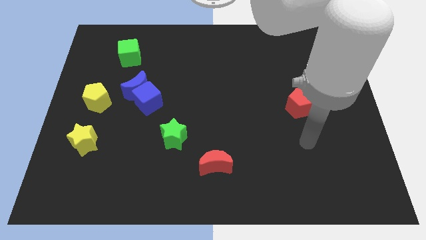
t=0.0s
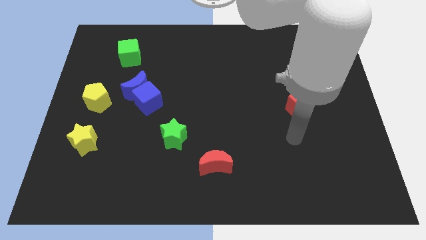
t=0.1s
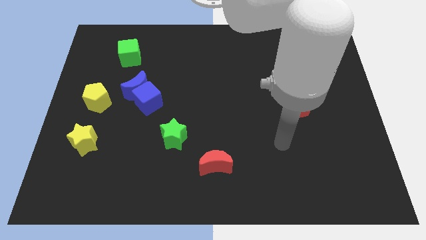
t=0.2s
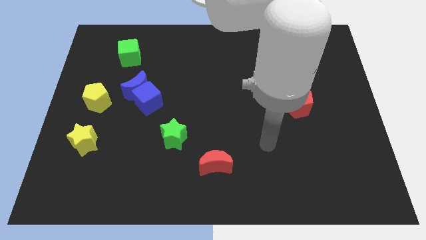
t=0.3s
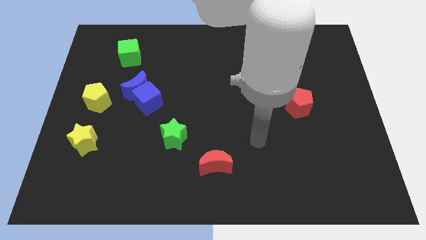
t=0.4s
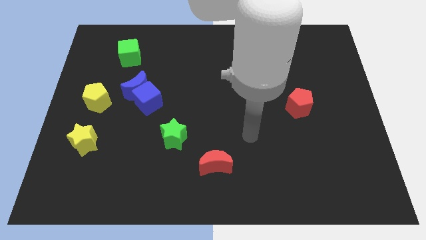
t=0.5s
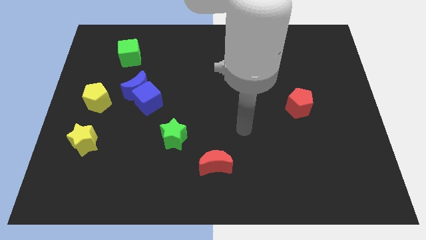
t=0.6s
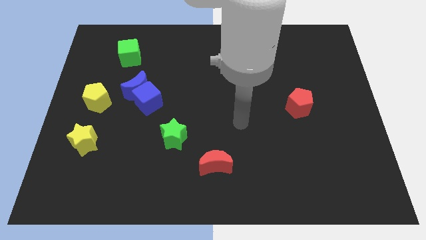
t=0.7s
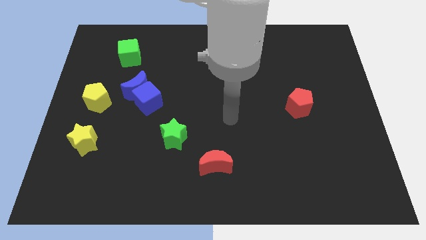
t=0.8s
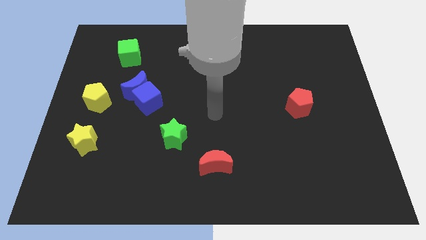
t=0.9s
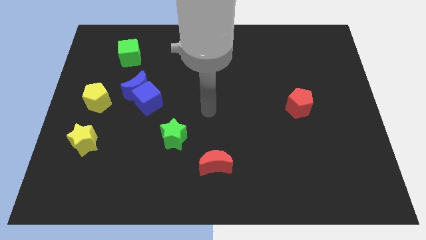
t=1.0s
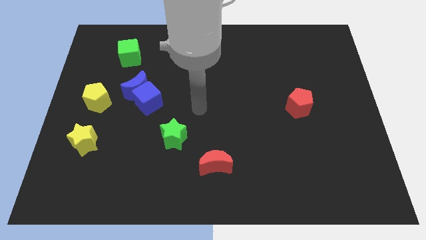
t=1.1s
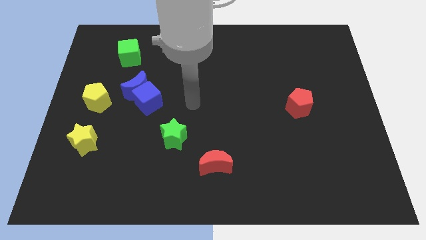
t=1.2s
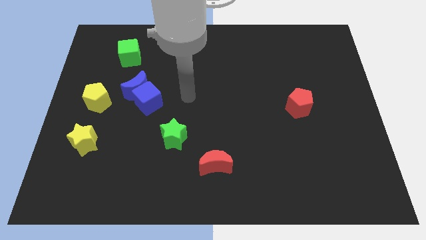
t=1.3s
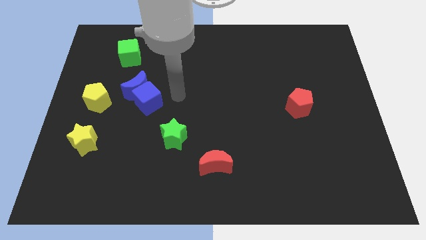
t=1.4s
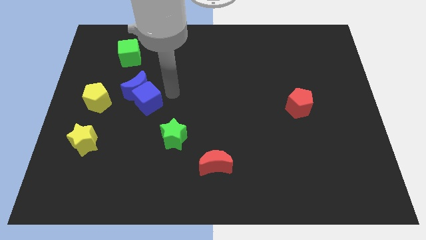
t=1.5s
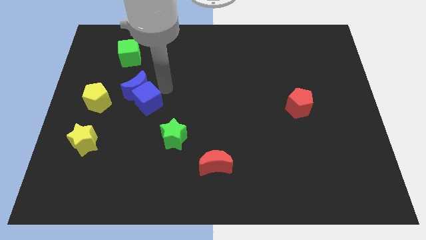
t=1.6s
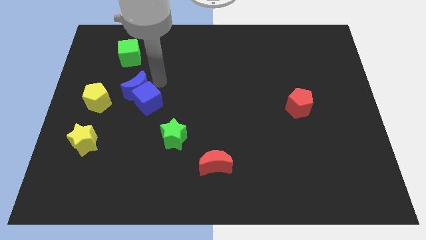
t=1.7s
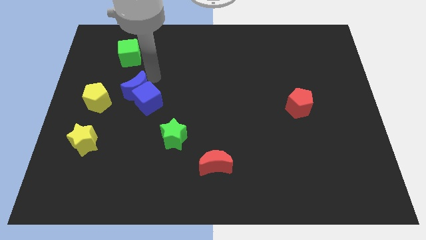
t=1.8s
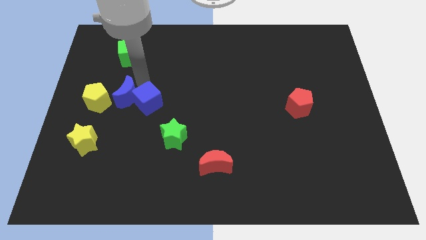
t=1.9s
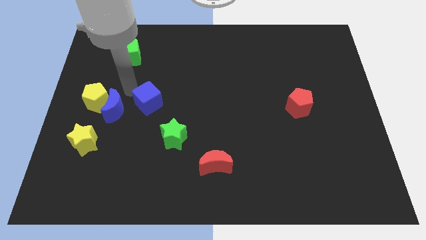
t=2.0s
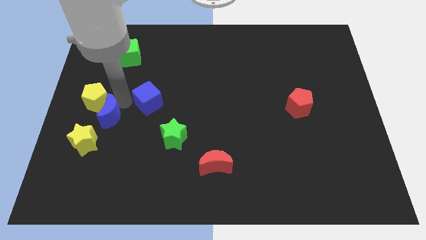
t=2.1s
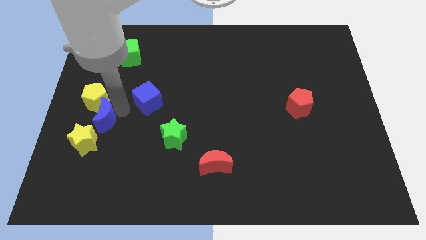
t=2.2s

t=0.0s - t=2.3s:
separate the blue cube from the blue moon

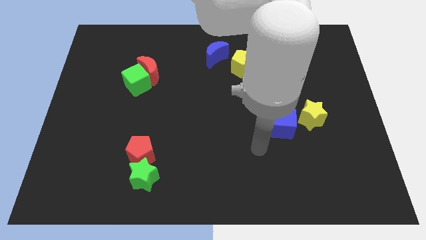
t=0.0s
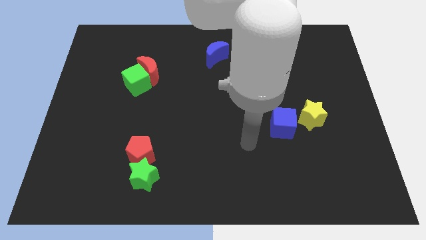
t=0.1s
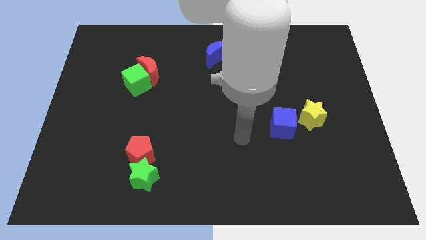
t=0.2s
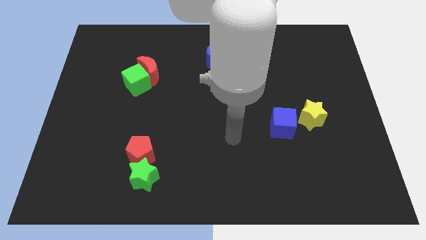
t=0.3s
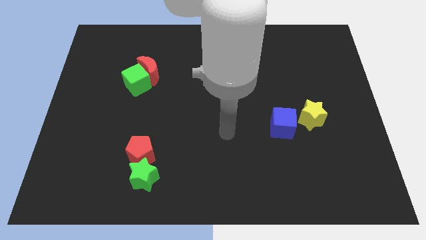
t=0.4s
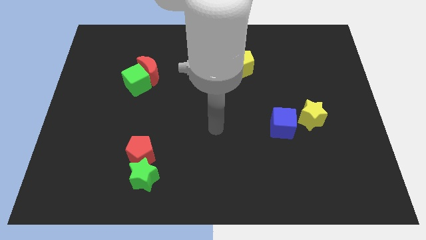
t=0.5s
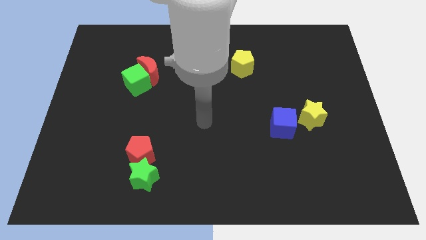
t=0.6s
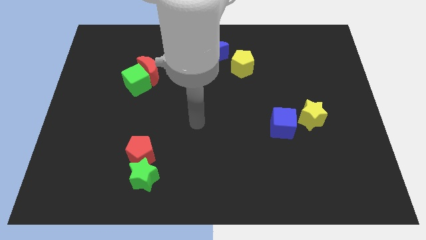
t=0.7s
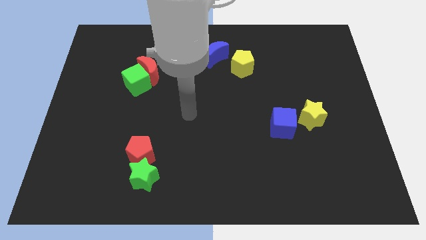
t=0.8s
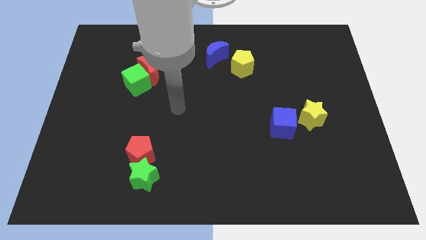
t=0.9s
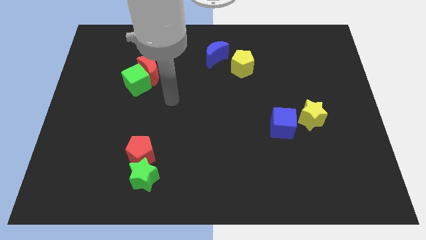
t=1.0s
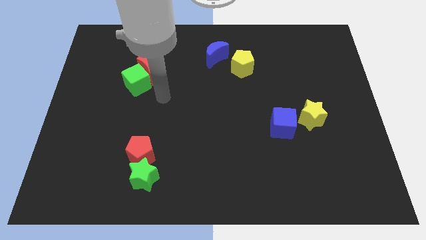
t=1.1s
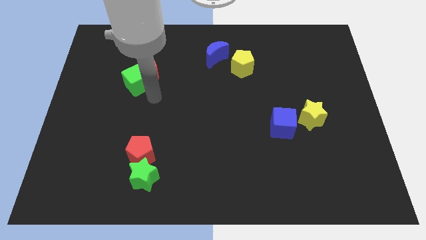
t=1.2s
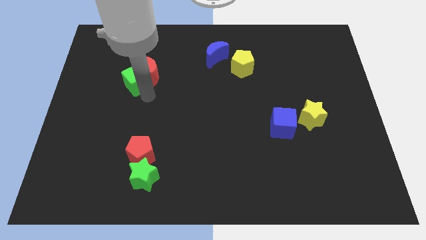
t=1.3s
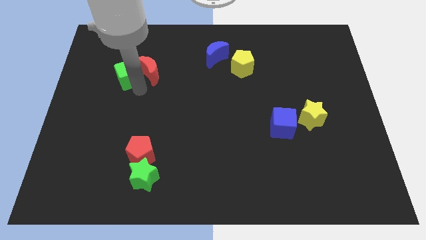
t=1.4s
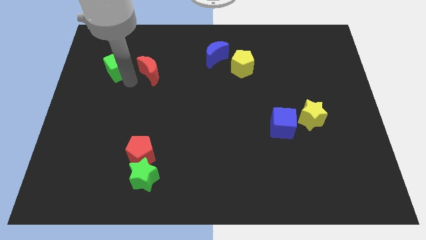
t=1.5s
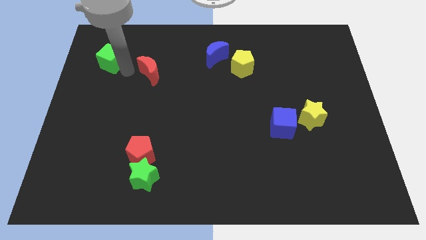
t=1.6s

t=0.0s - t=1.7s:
move the red moon away from the green cube

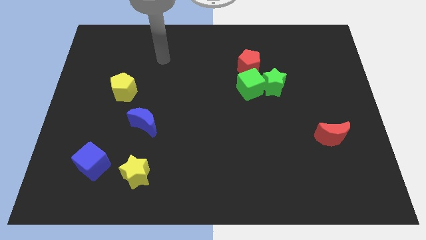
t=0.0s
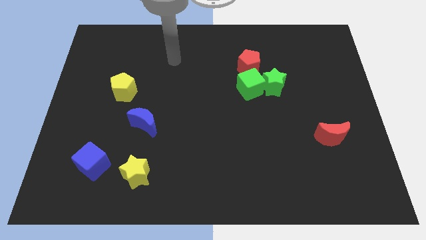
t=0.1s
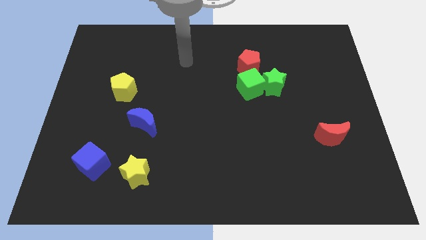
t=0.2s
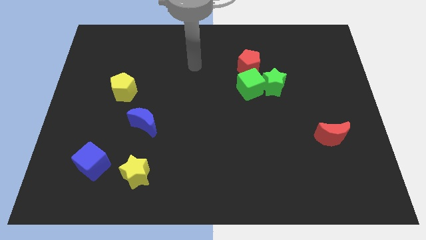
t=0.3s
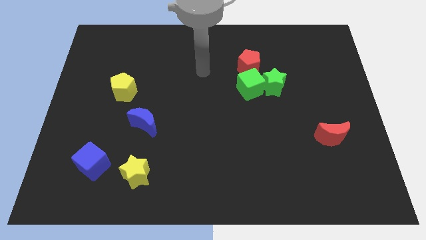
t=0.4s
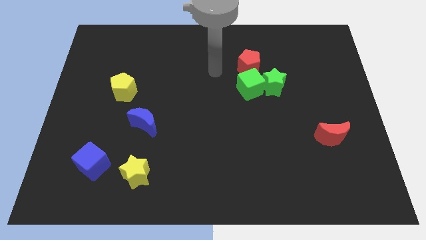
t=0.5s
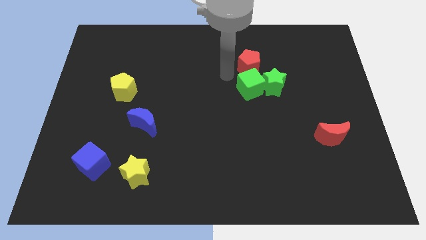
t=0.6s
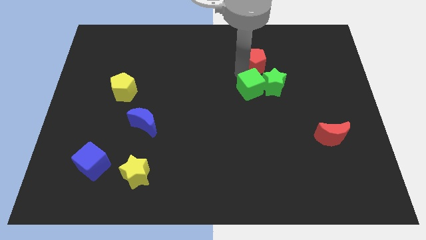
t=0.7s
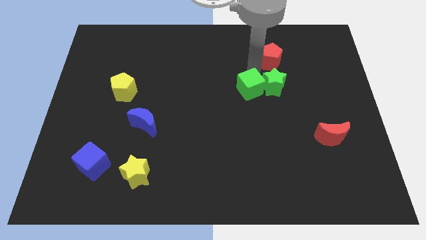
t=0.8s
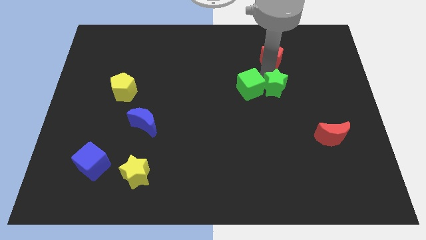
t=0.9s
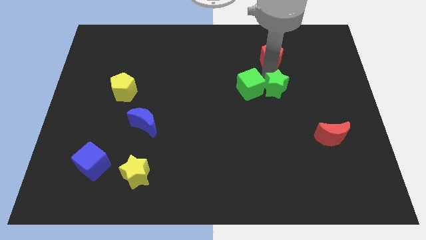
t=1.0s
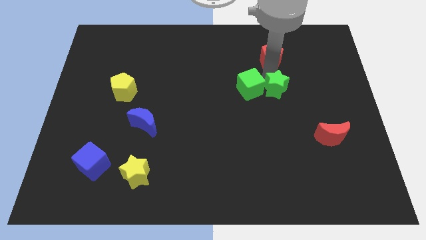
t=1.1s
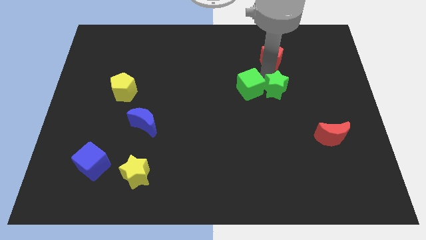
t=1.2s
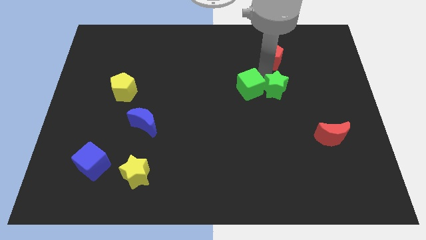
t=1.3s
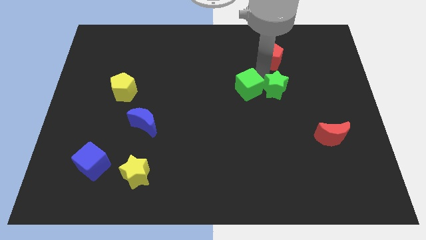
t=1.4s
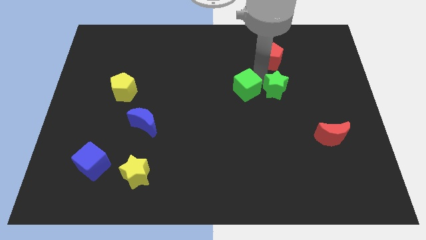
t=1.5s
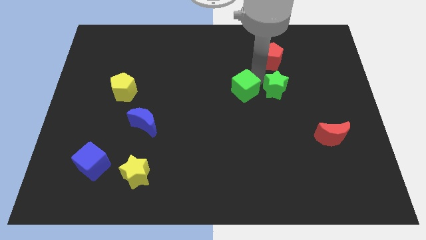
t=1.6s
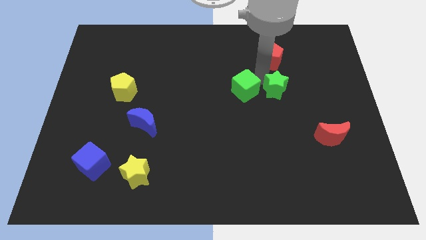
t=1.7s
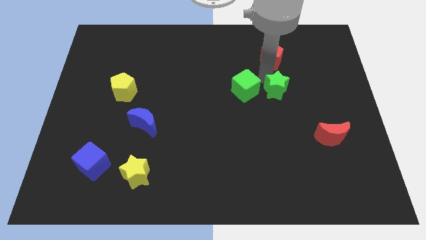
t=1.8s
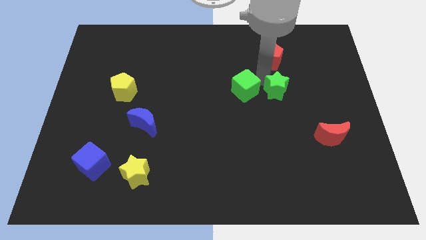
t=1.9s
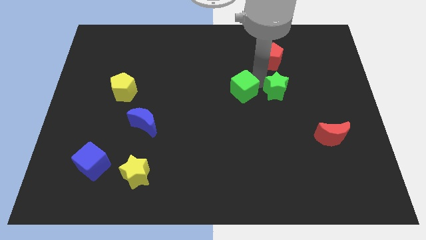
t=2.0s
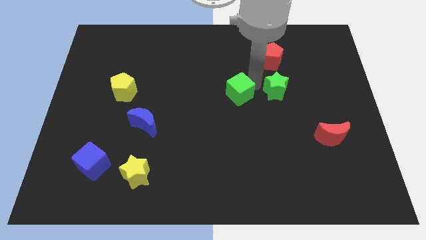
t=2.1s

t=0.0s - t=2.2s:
pull the green cube apart from the green star and red pentagon

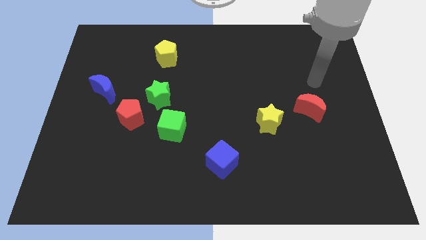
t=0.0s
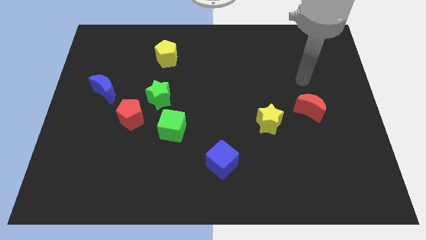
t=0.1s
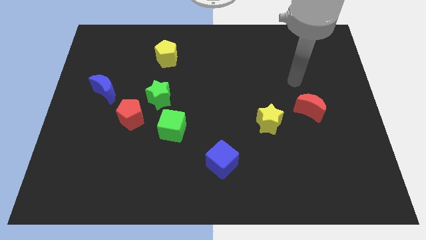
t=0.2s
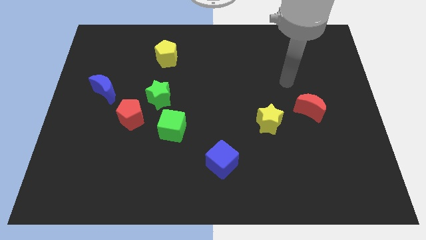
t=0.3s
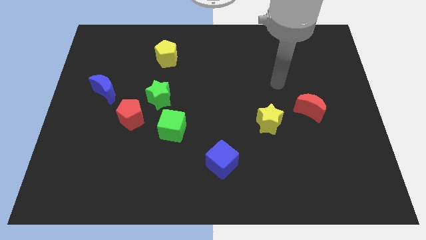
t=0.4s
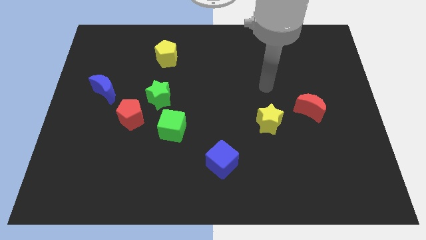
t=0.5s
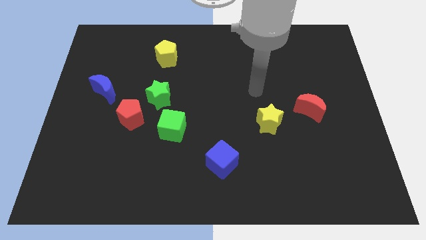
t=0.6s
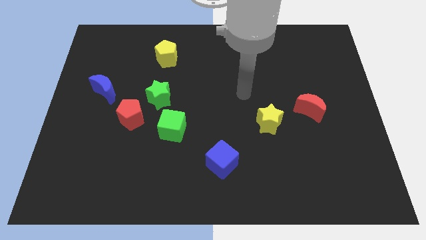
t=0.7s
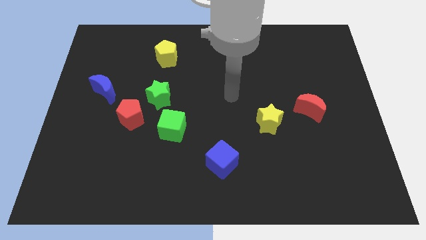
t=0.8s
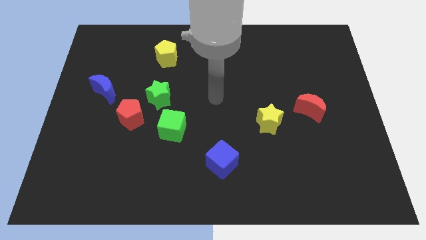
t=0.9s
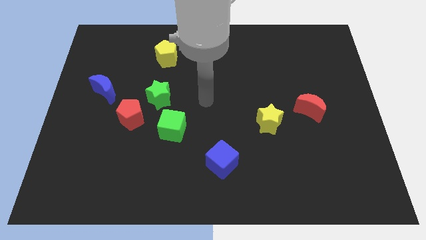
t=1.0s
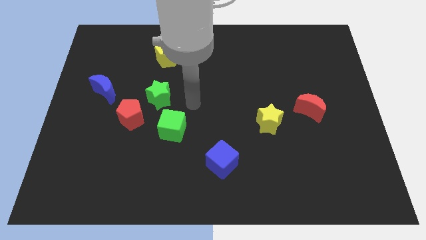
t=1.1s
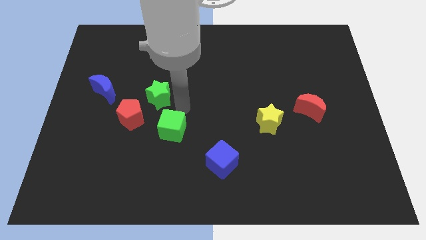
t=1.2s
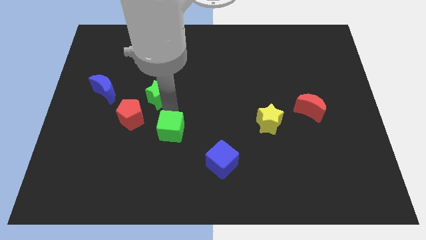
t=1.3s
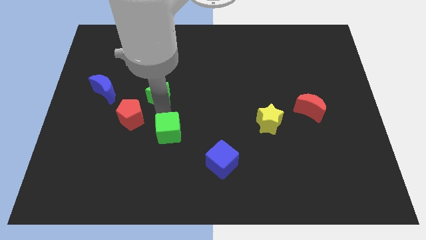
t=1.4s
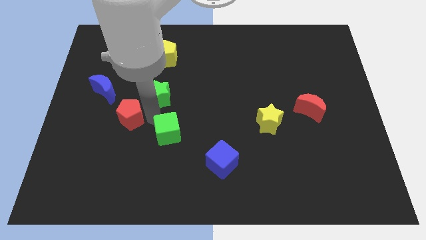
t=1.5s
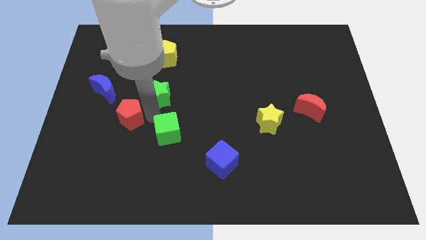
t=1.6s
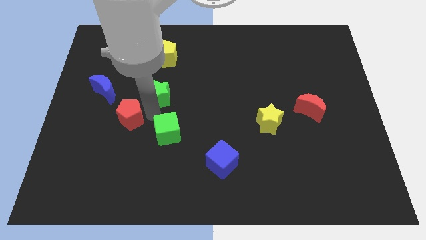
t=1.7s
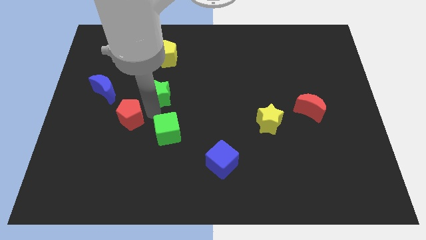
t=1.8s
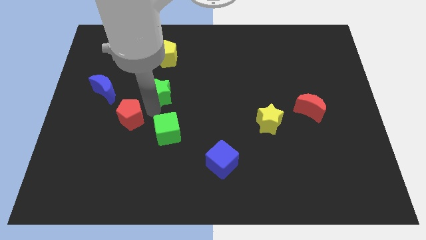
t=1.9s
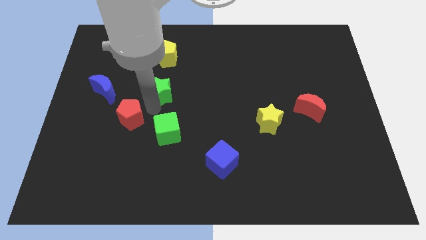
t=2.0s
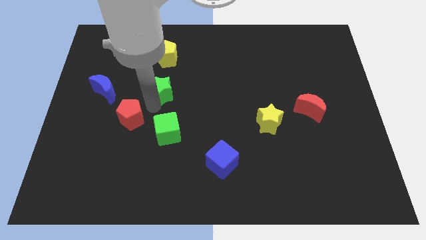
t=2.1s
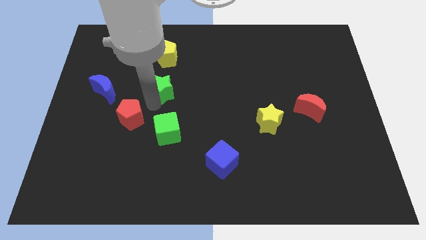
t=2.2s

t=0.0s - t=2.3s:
separate the green star from the red pentagon and green cube

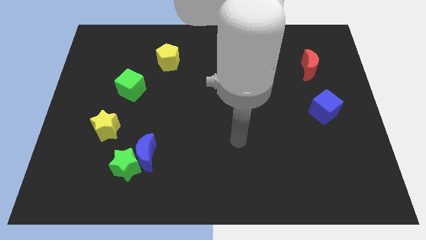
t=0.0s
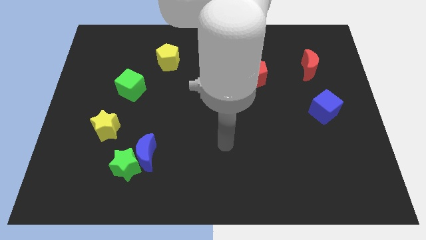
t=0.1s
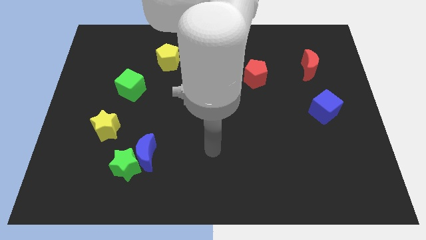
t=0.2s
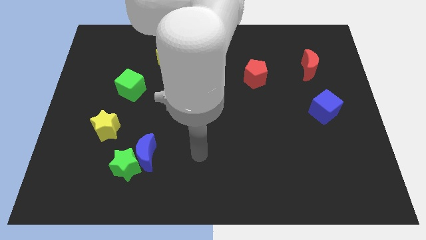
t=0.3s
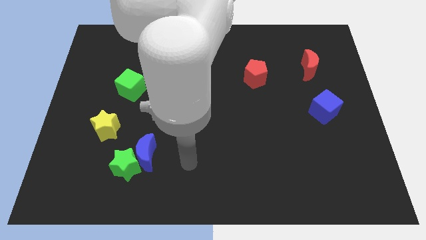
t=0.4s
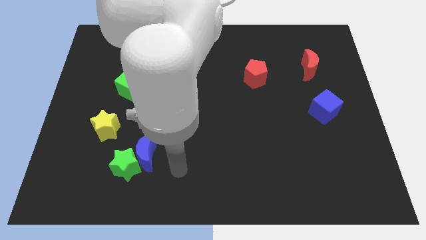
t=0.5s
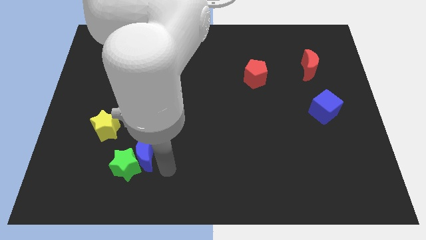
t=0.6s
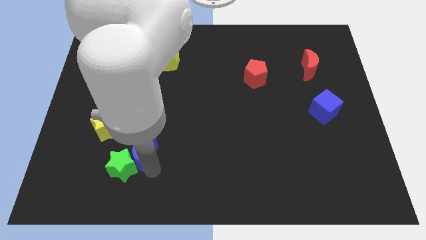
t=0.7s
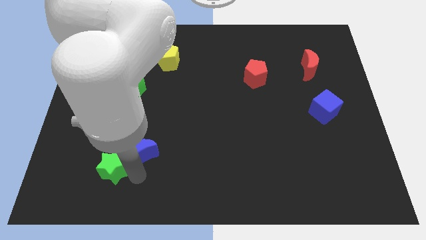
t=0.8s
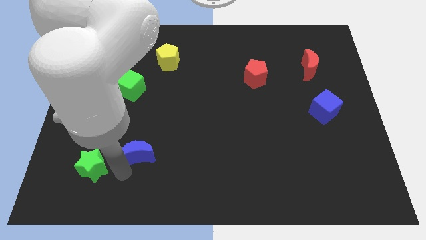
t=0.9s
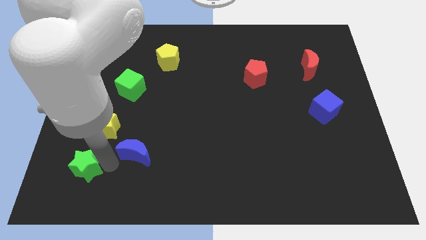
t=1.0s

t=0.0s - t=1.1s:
move the blue moon away from the green star
